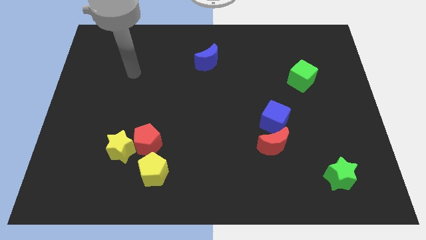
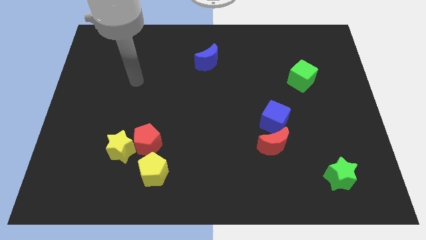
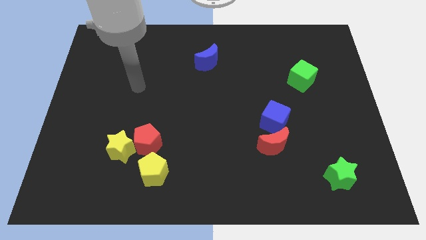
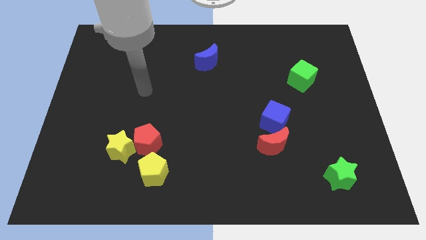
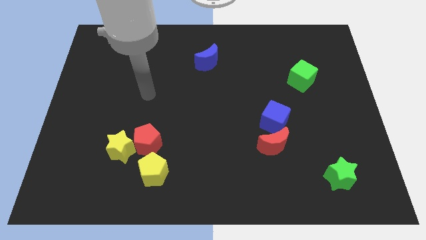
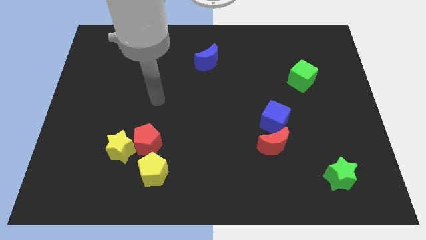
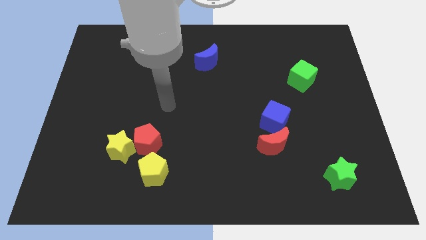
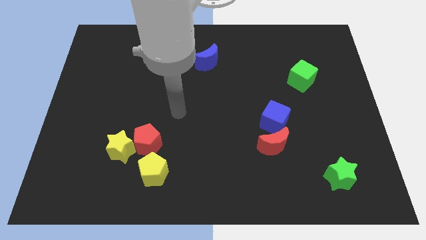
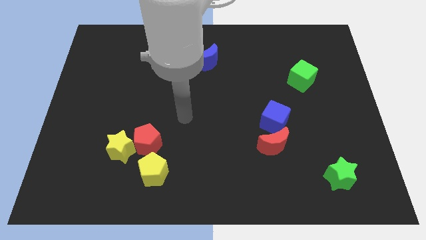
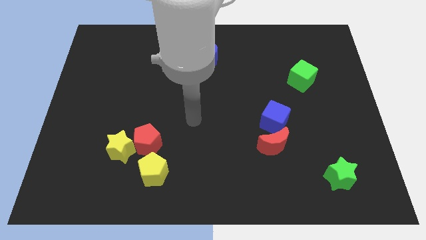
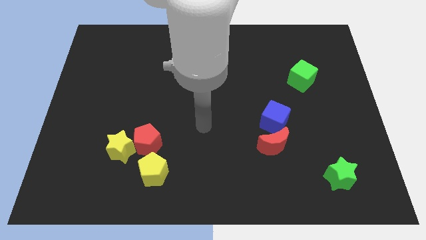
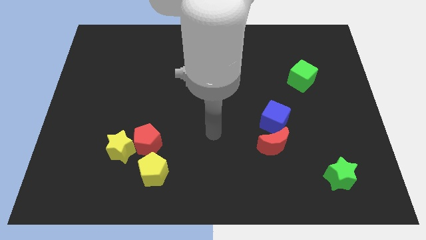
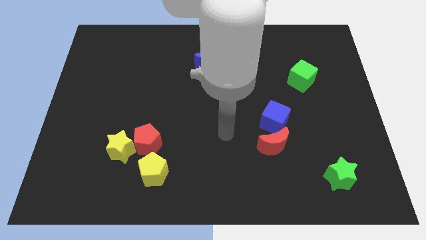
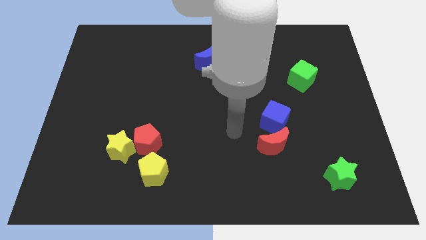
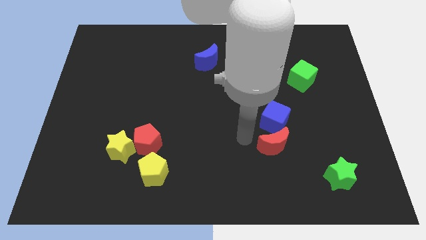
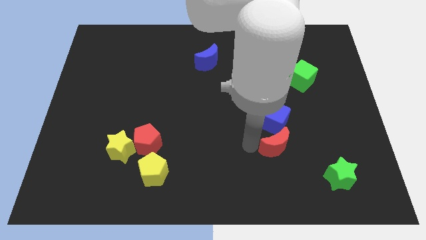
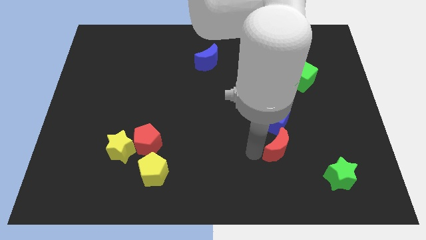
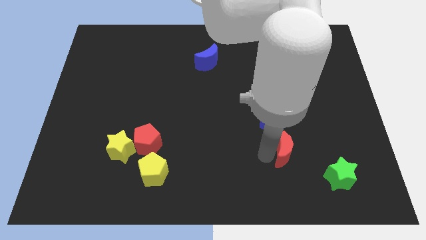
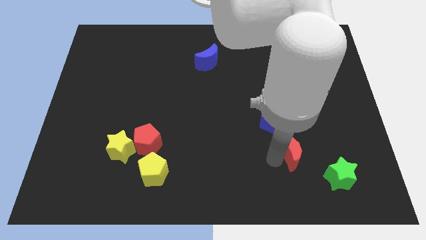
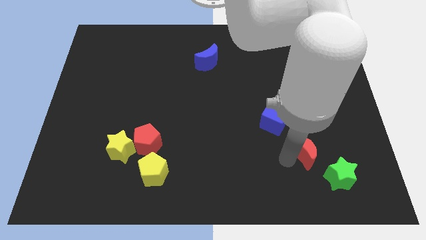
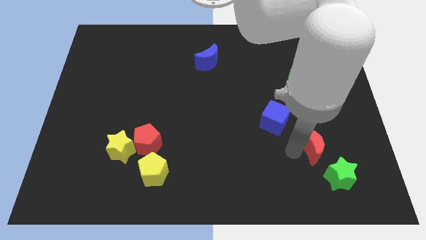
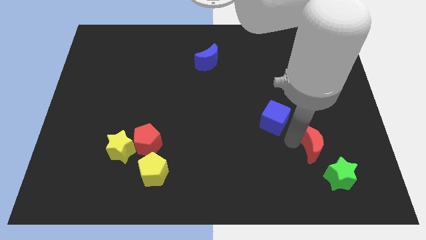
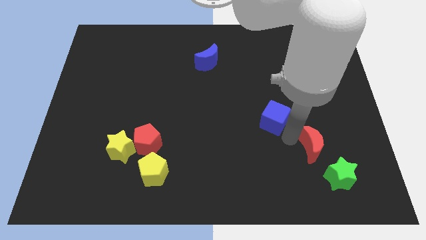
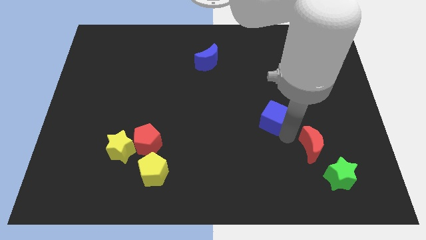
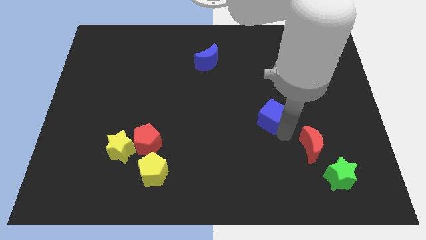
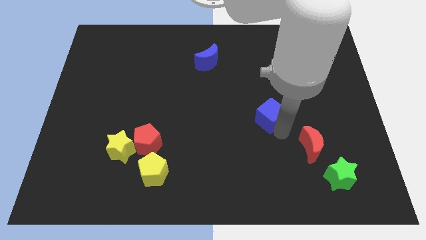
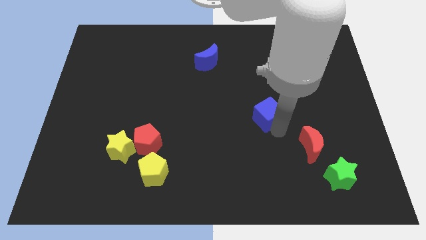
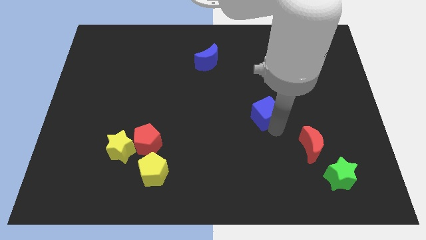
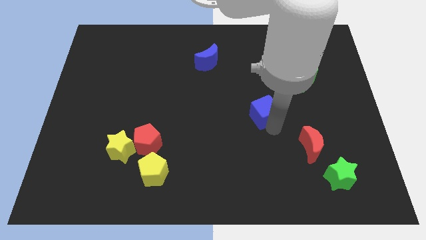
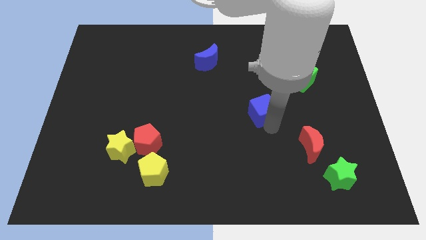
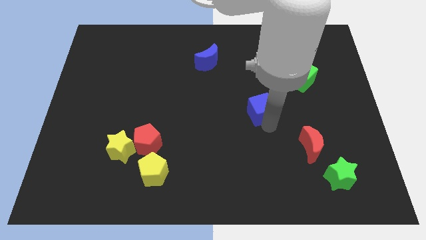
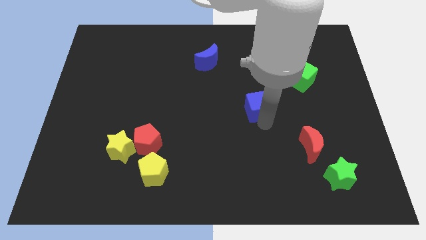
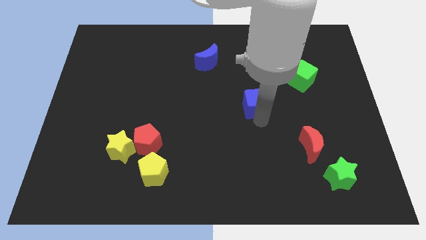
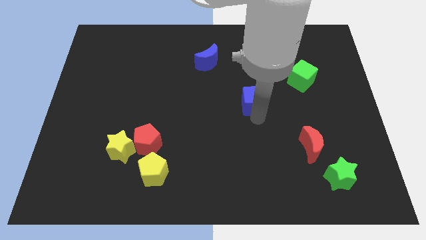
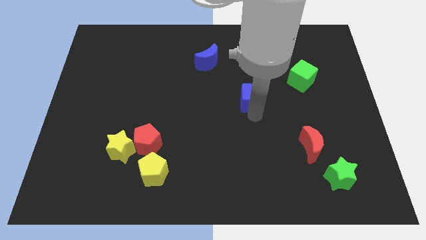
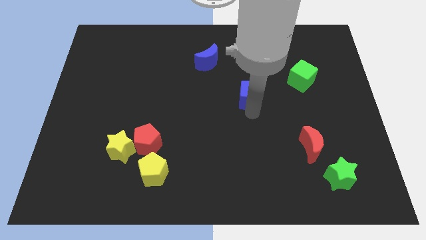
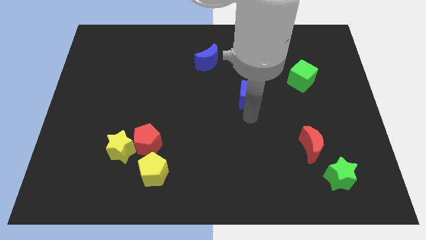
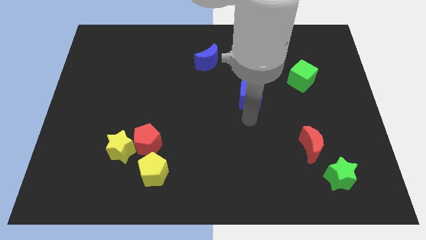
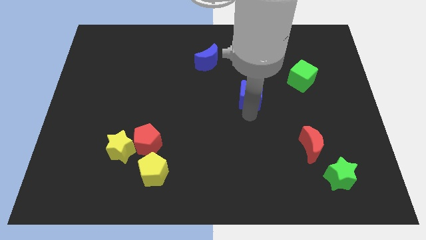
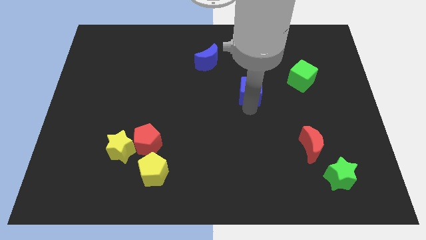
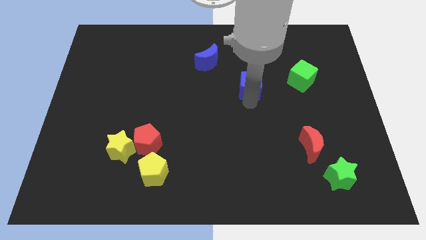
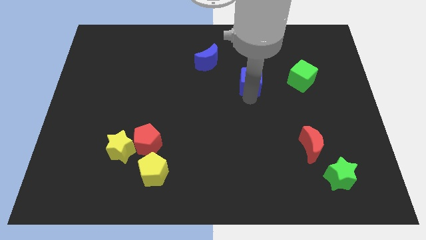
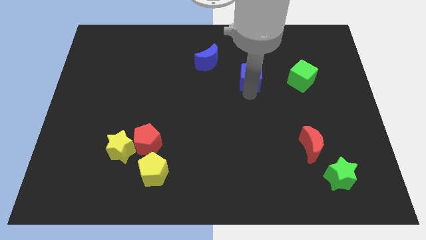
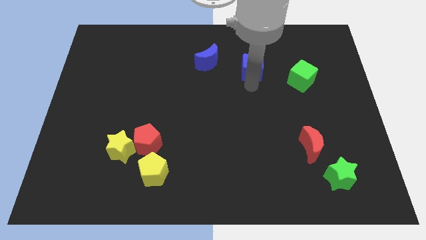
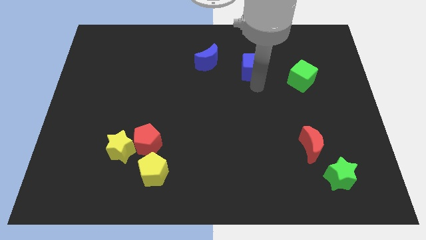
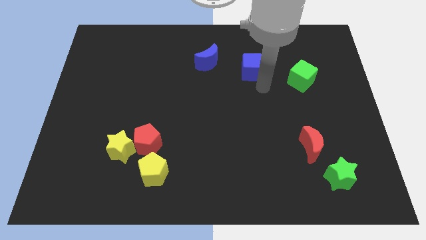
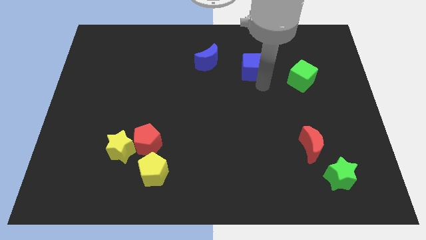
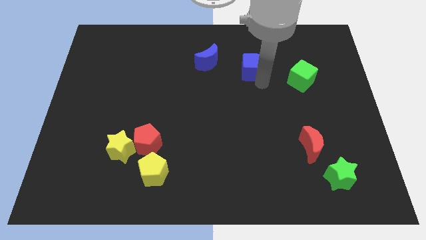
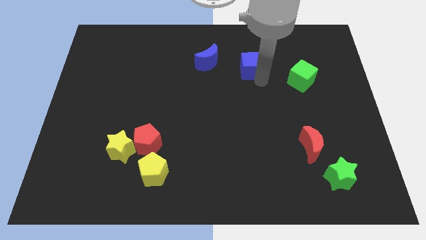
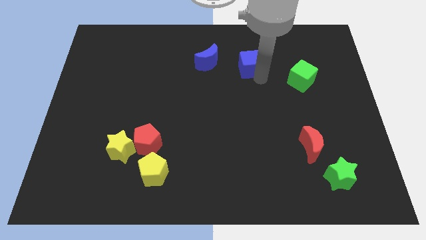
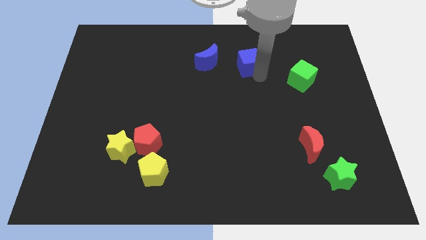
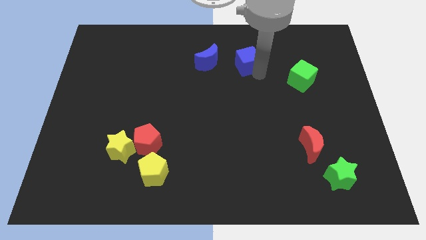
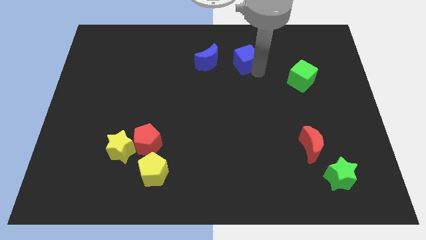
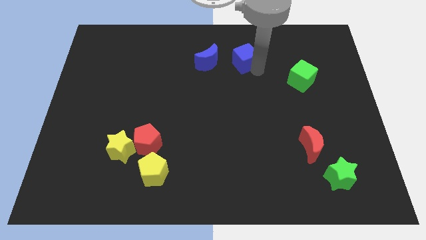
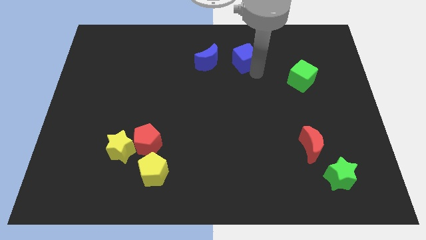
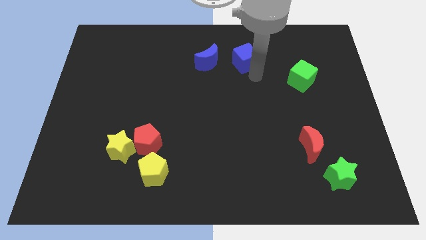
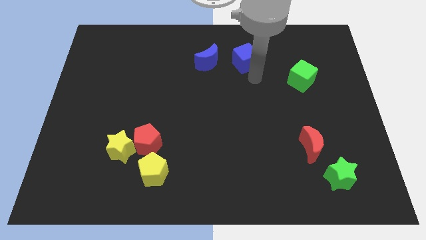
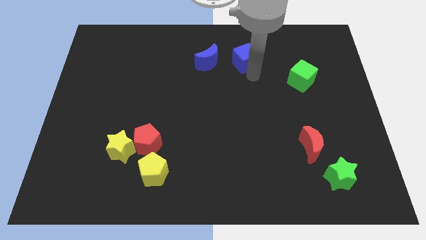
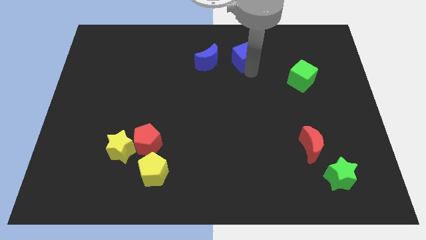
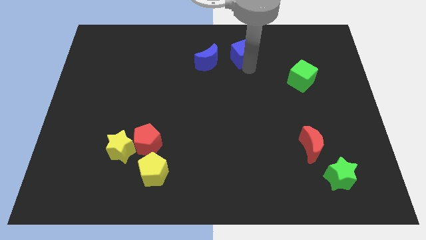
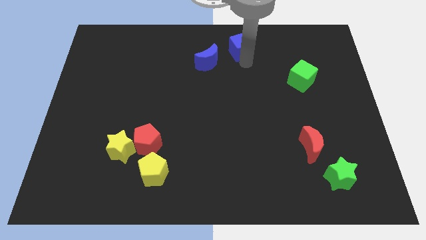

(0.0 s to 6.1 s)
push the blue cube to the towards your base
